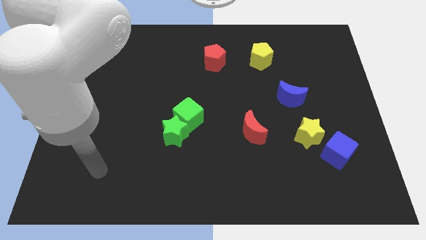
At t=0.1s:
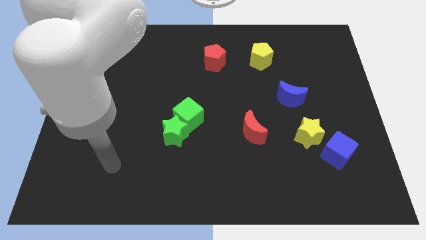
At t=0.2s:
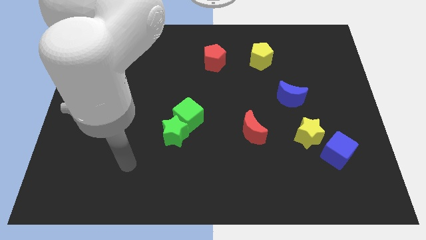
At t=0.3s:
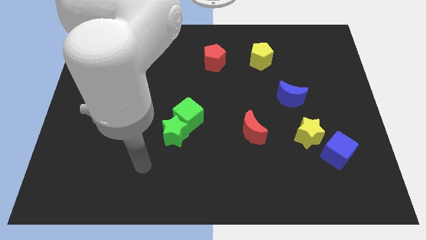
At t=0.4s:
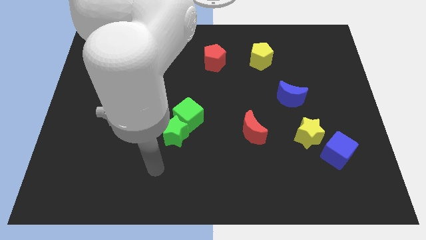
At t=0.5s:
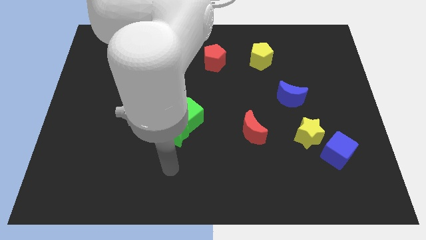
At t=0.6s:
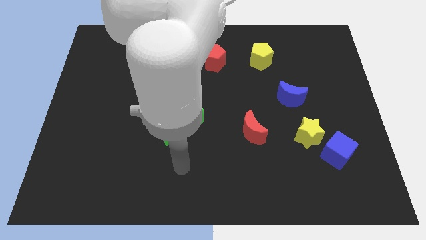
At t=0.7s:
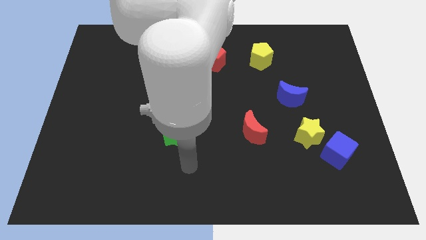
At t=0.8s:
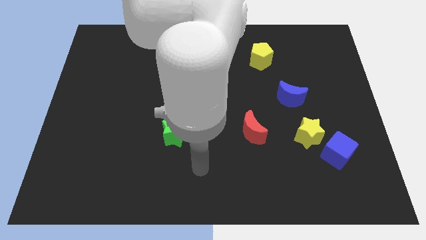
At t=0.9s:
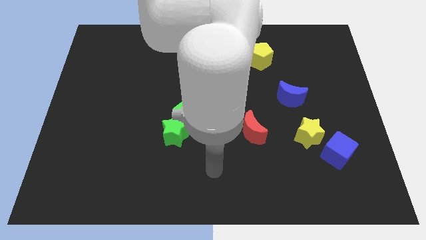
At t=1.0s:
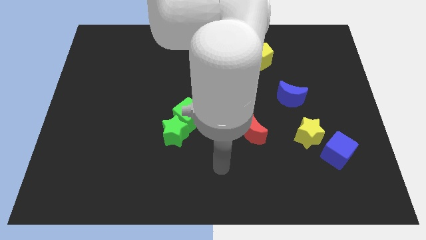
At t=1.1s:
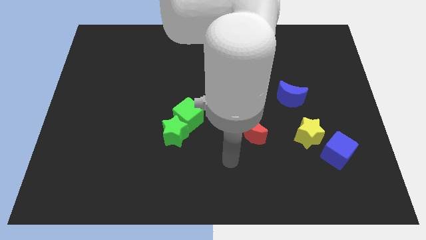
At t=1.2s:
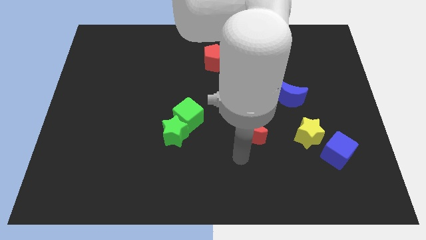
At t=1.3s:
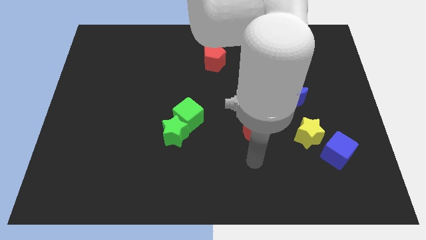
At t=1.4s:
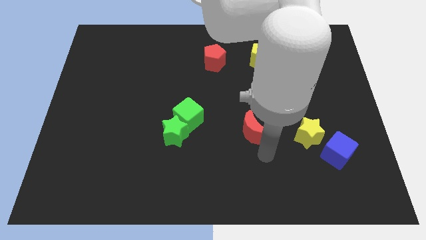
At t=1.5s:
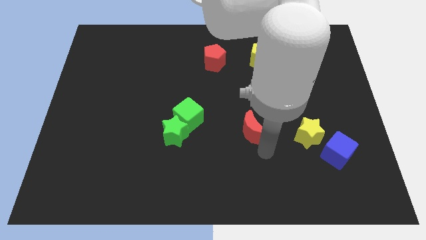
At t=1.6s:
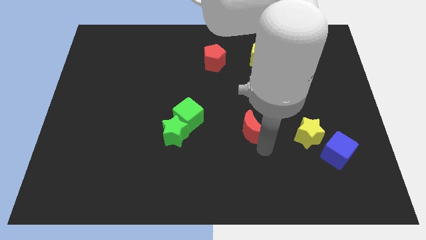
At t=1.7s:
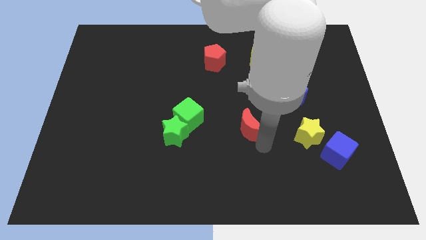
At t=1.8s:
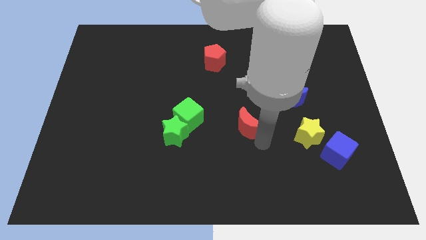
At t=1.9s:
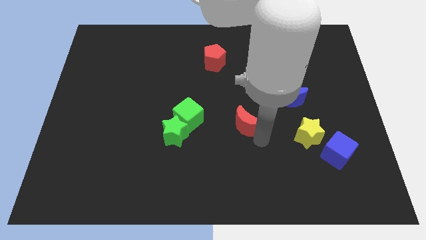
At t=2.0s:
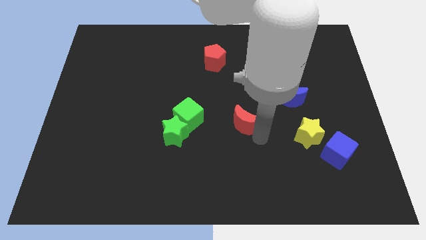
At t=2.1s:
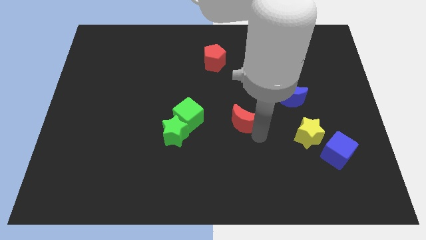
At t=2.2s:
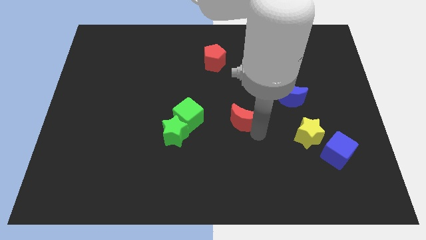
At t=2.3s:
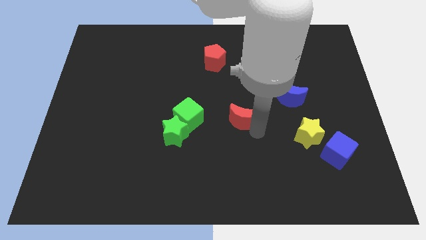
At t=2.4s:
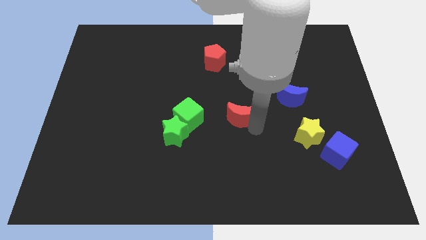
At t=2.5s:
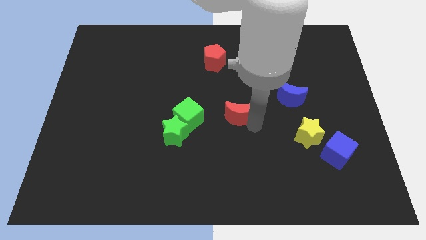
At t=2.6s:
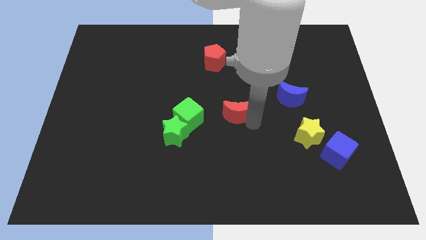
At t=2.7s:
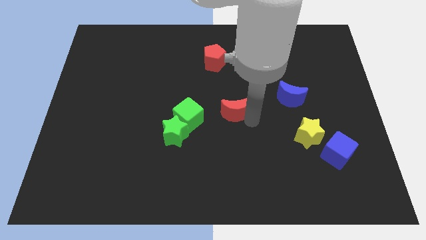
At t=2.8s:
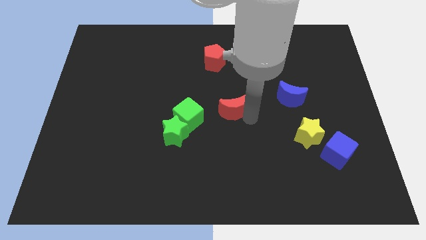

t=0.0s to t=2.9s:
push the red moon a little upwards and to the left

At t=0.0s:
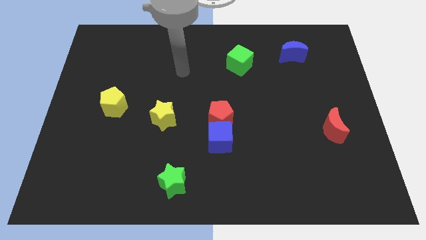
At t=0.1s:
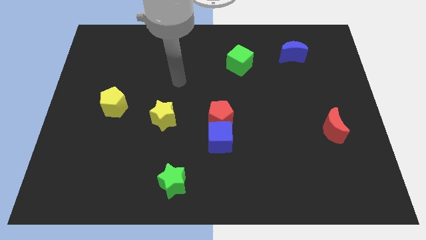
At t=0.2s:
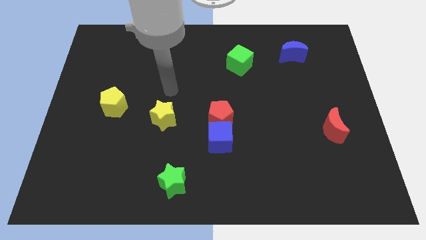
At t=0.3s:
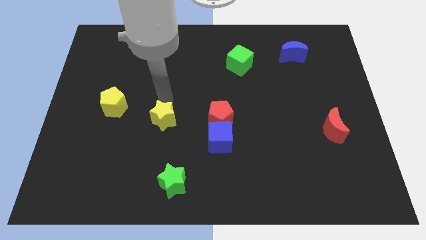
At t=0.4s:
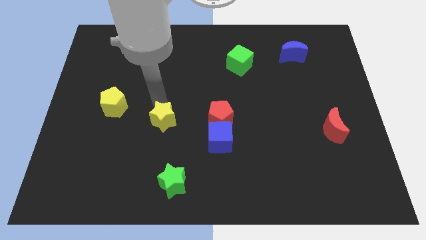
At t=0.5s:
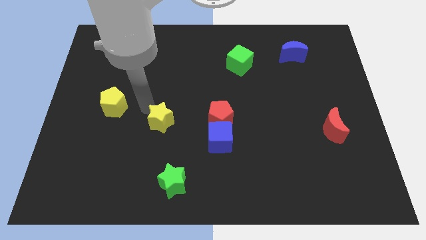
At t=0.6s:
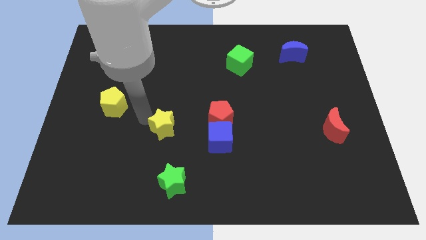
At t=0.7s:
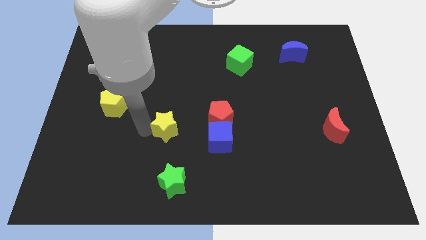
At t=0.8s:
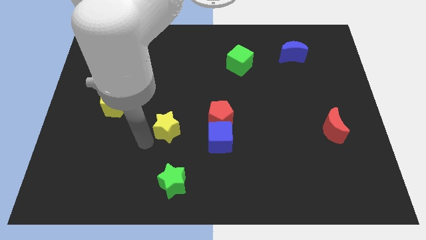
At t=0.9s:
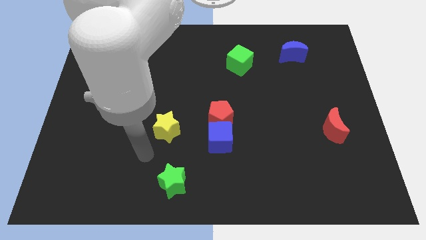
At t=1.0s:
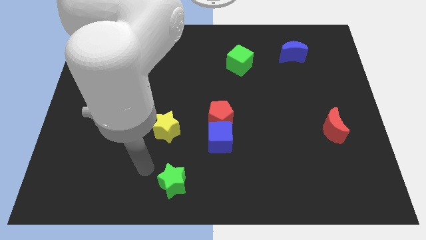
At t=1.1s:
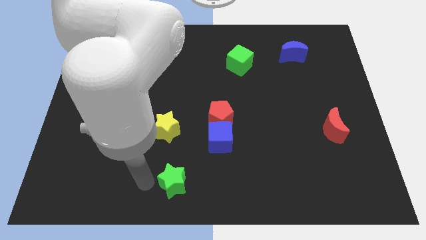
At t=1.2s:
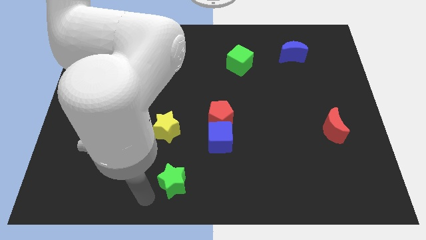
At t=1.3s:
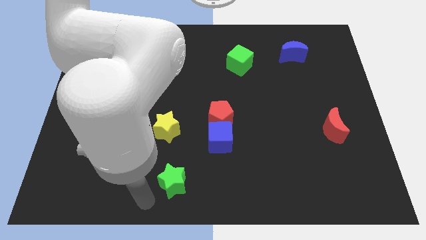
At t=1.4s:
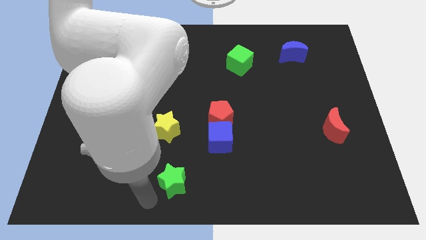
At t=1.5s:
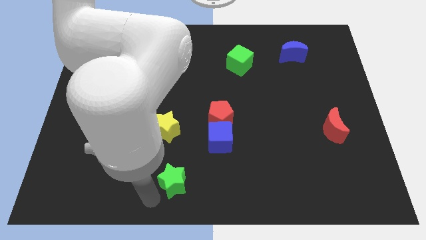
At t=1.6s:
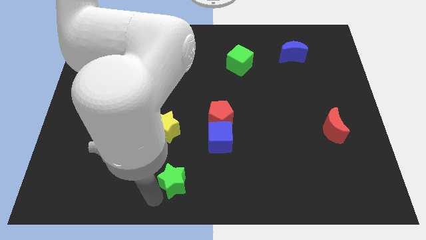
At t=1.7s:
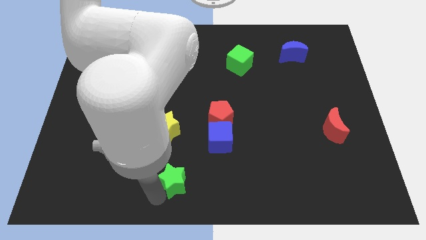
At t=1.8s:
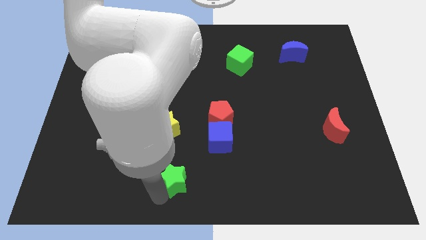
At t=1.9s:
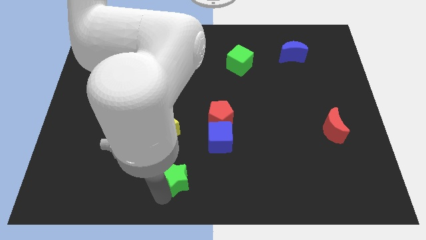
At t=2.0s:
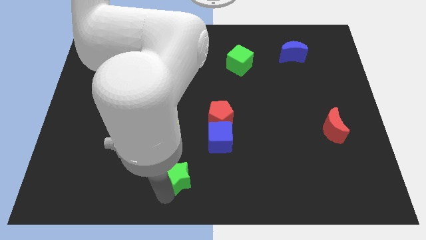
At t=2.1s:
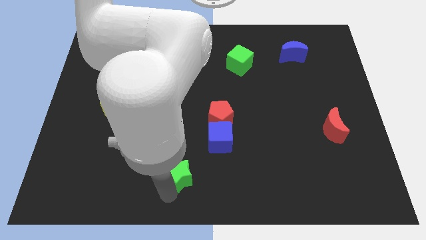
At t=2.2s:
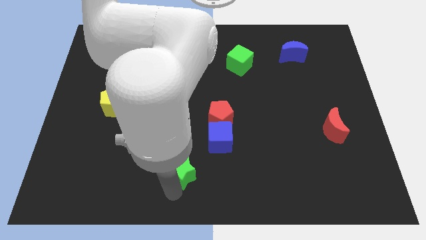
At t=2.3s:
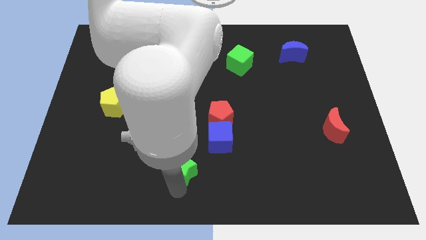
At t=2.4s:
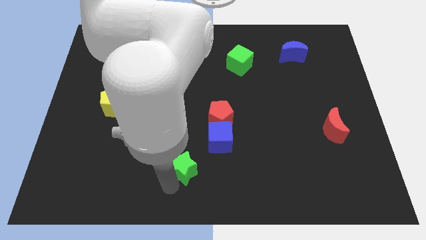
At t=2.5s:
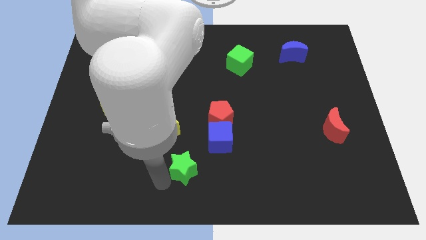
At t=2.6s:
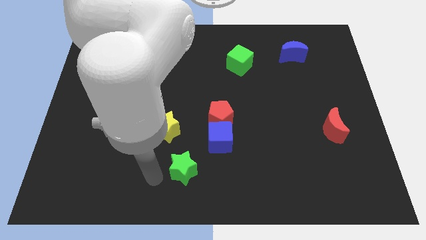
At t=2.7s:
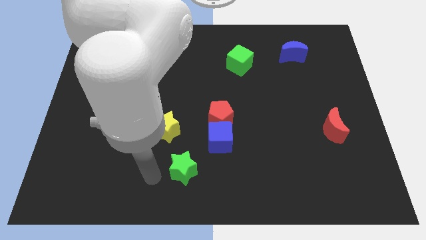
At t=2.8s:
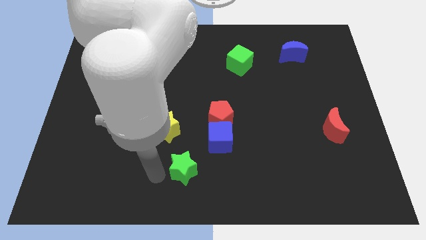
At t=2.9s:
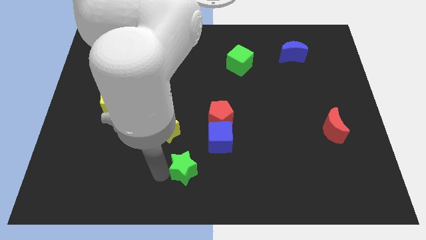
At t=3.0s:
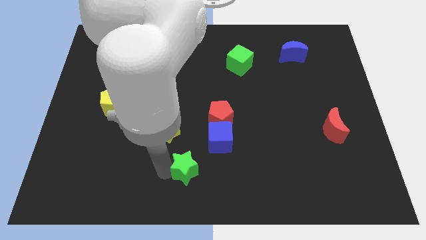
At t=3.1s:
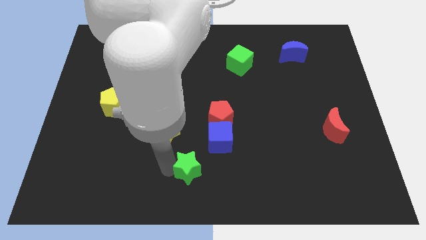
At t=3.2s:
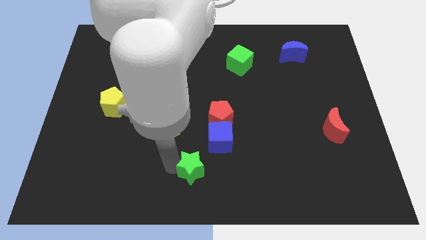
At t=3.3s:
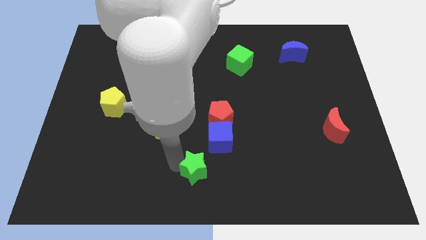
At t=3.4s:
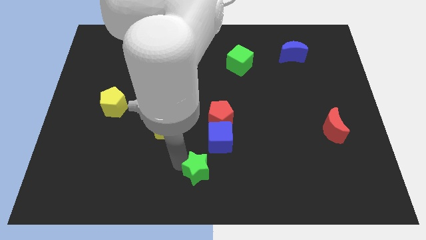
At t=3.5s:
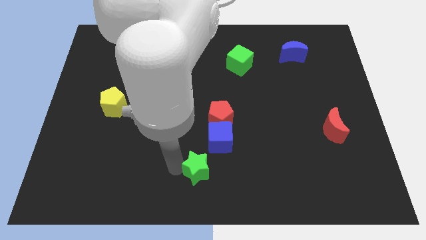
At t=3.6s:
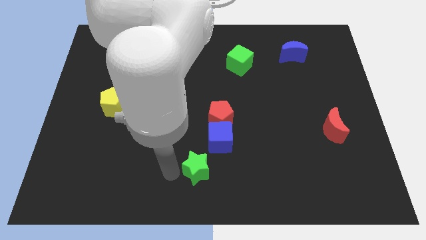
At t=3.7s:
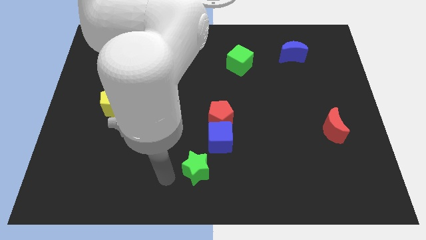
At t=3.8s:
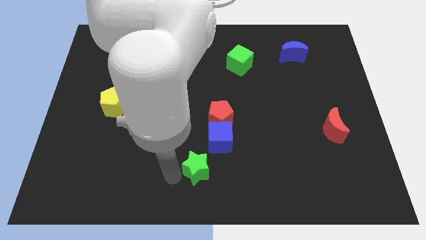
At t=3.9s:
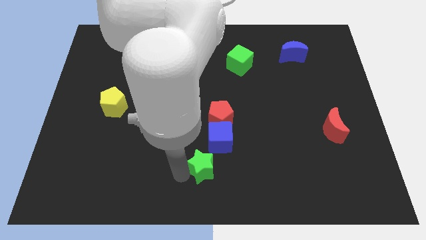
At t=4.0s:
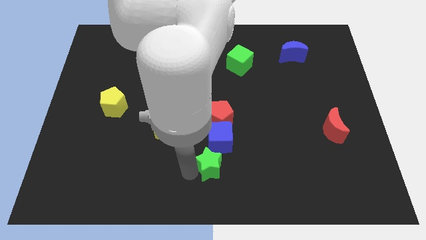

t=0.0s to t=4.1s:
slide the green star up and right diagonally somewhat

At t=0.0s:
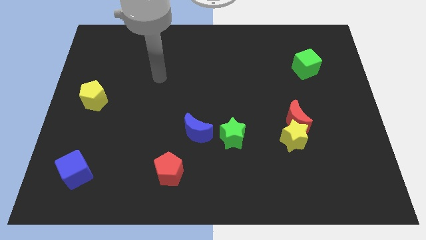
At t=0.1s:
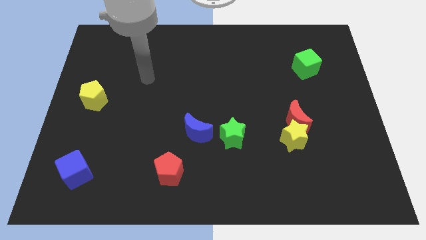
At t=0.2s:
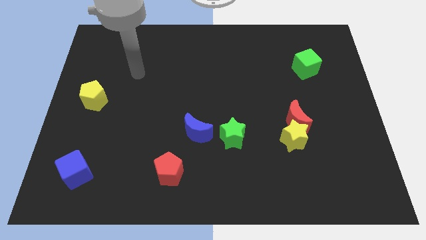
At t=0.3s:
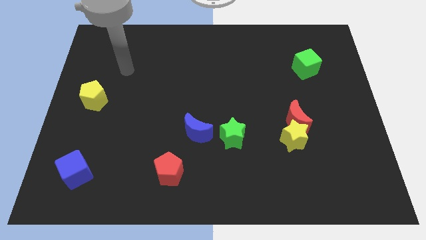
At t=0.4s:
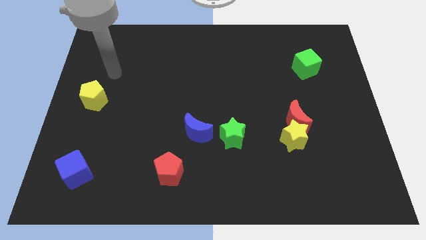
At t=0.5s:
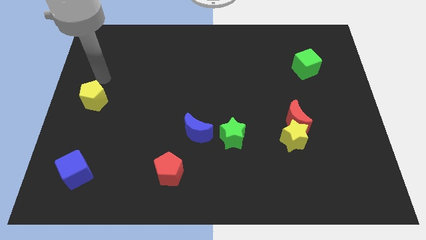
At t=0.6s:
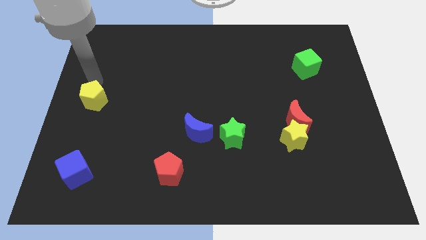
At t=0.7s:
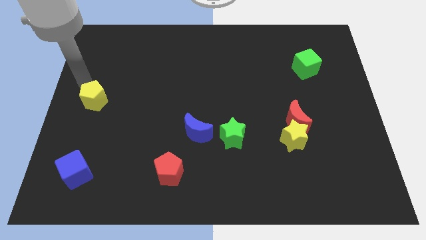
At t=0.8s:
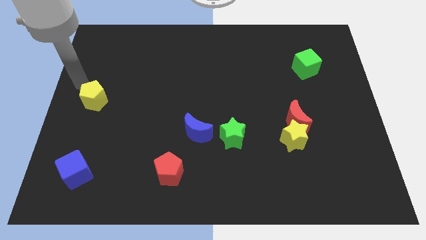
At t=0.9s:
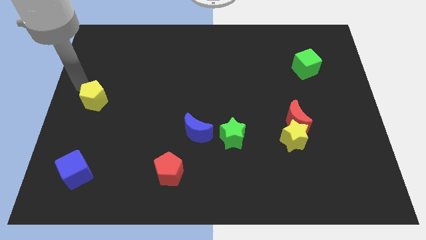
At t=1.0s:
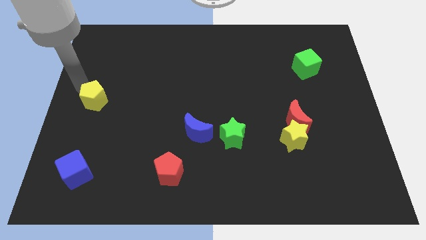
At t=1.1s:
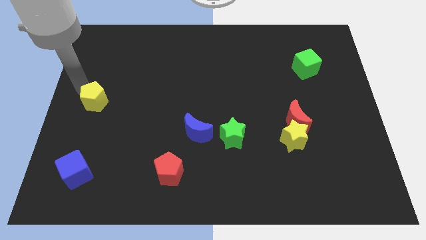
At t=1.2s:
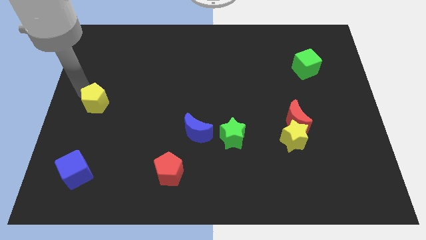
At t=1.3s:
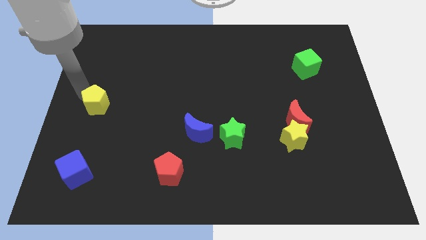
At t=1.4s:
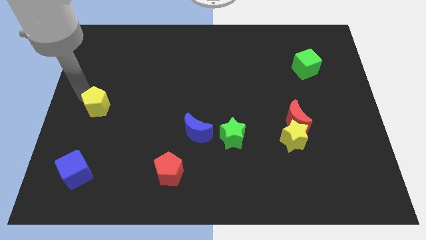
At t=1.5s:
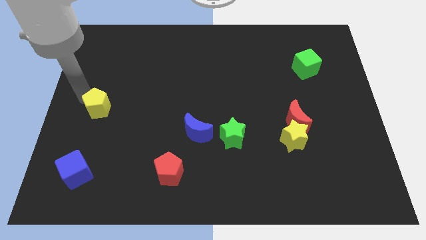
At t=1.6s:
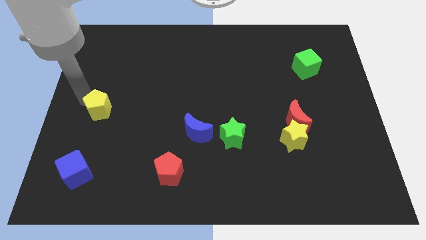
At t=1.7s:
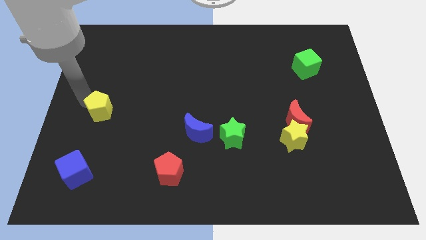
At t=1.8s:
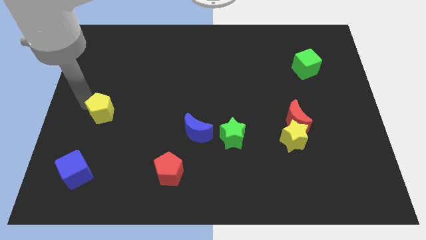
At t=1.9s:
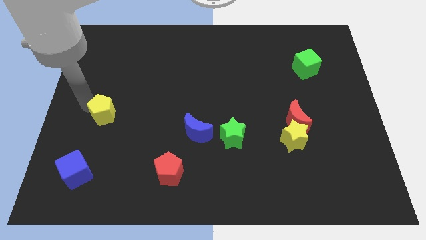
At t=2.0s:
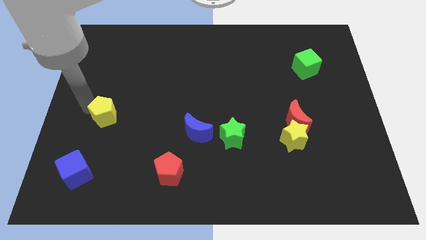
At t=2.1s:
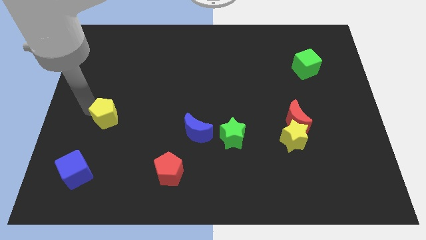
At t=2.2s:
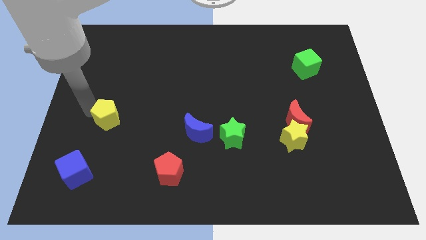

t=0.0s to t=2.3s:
slightly move the yellow pentagon down and to the right
